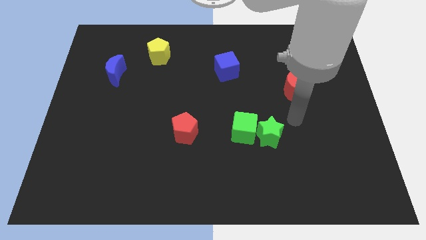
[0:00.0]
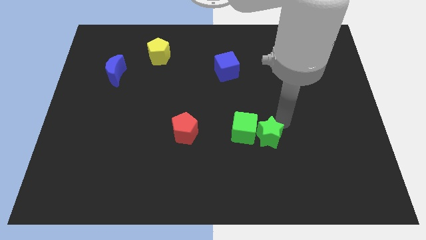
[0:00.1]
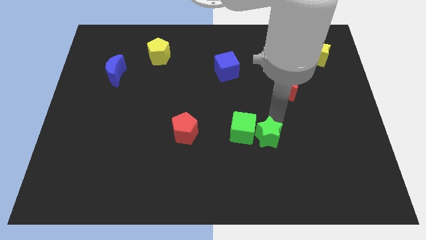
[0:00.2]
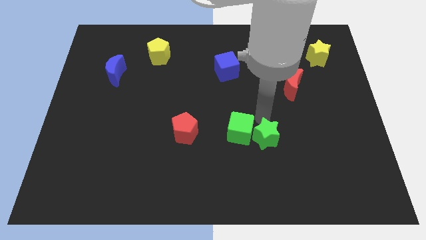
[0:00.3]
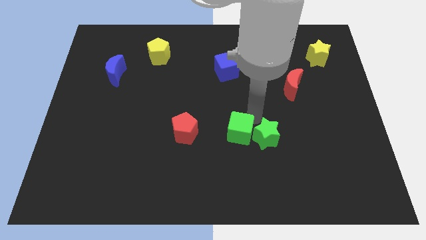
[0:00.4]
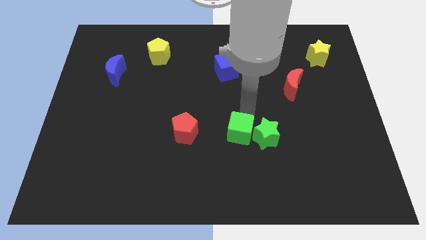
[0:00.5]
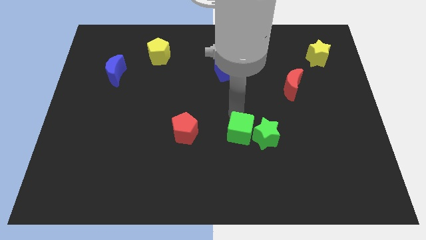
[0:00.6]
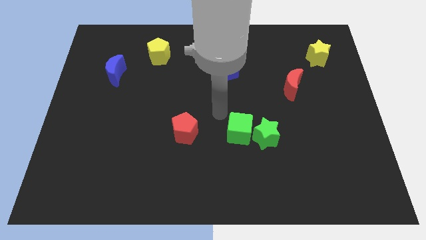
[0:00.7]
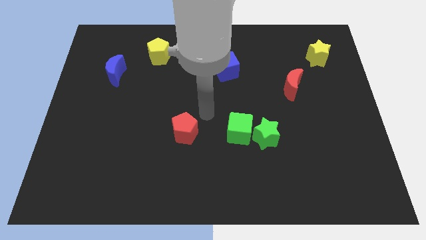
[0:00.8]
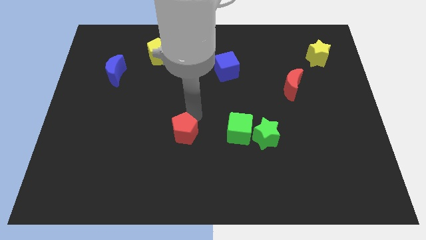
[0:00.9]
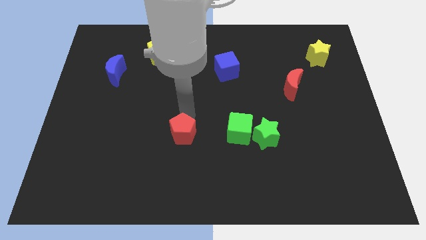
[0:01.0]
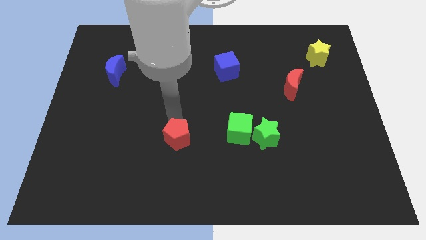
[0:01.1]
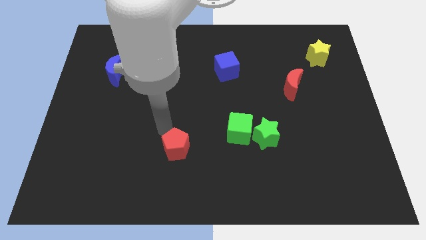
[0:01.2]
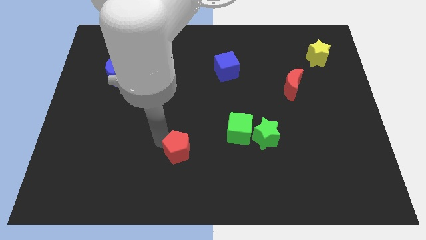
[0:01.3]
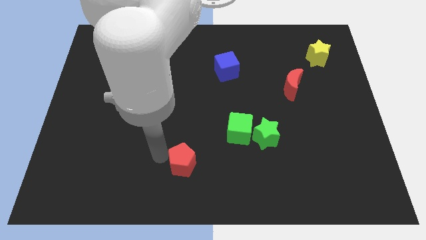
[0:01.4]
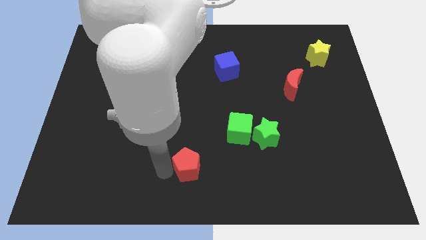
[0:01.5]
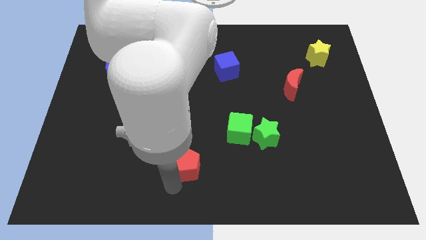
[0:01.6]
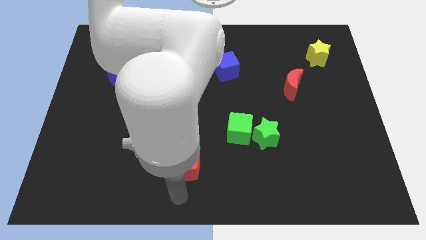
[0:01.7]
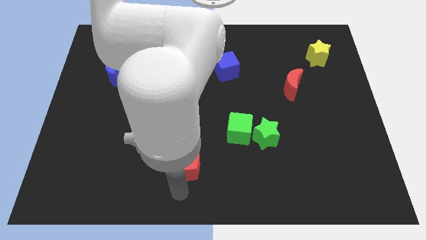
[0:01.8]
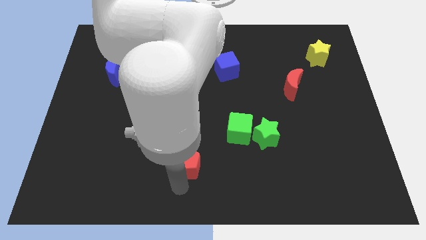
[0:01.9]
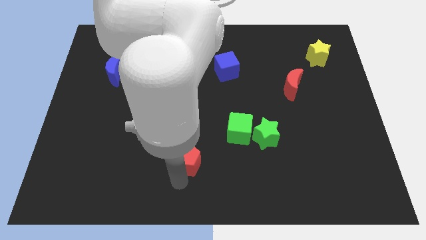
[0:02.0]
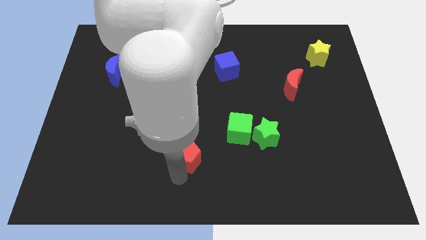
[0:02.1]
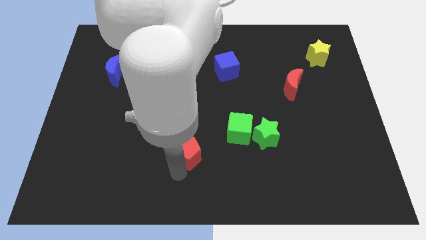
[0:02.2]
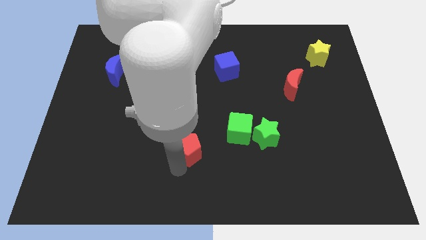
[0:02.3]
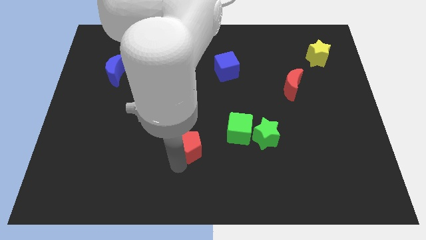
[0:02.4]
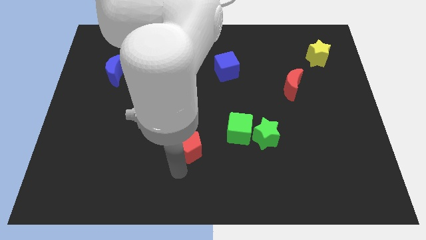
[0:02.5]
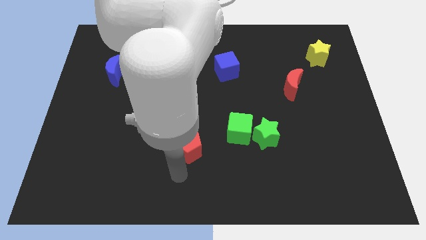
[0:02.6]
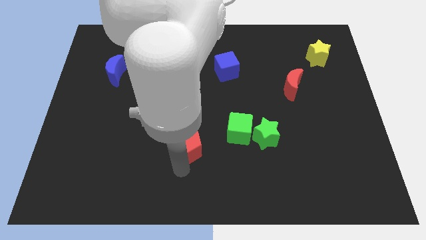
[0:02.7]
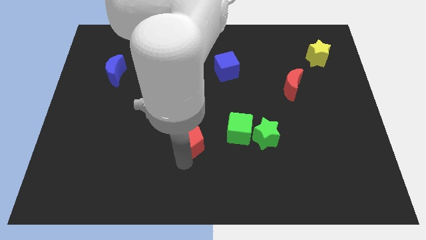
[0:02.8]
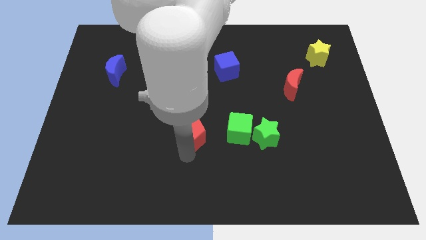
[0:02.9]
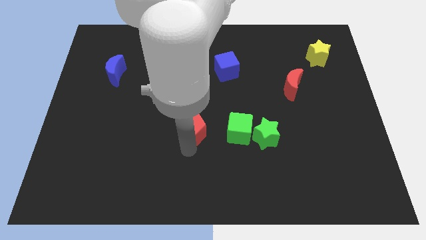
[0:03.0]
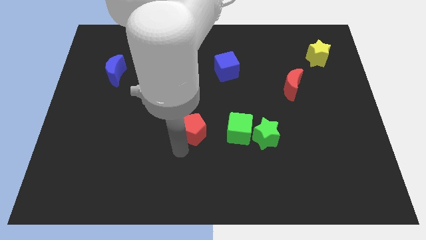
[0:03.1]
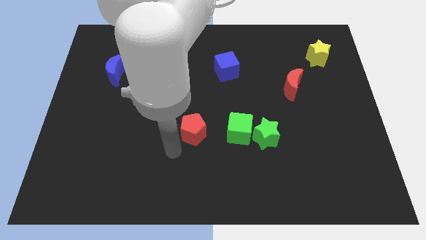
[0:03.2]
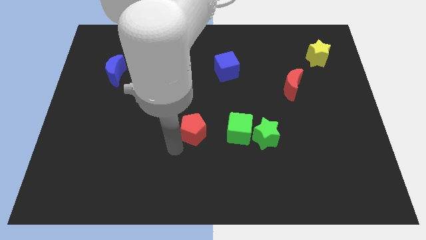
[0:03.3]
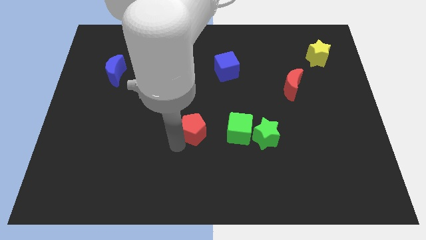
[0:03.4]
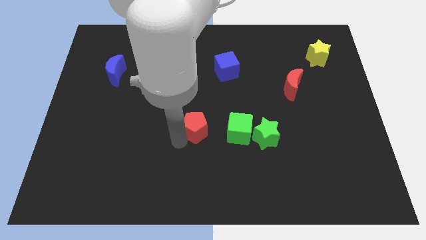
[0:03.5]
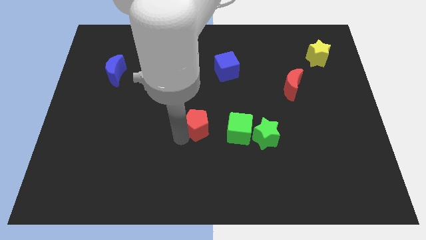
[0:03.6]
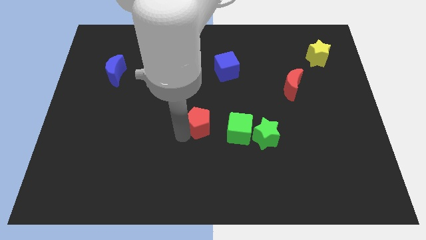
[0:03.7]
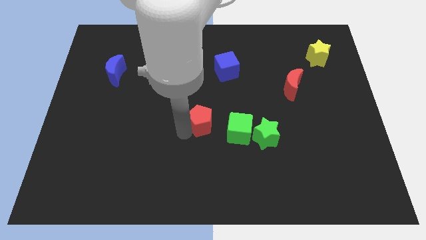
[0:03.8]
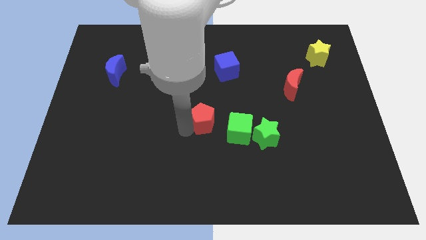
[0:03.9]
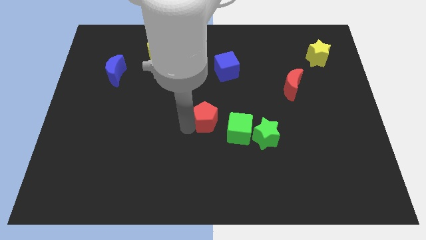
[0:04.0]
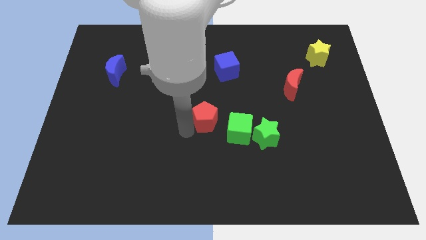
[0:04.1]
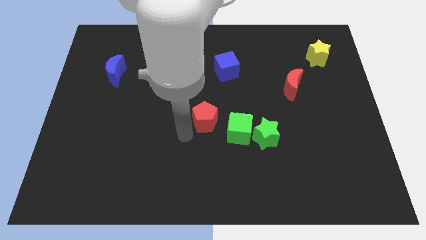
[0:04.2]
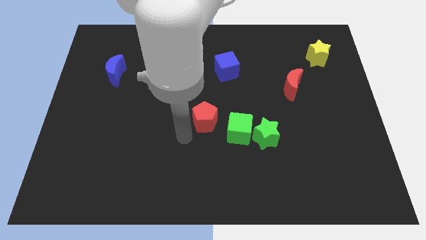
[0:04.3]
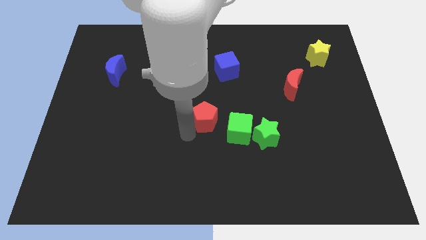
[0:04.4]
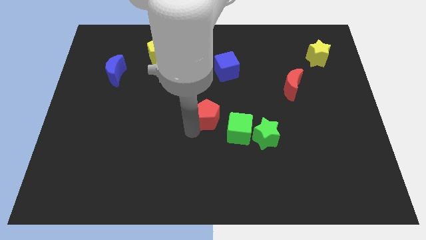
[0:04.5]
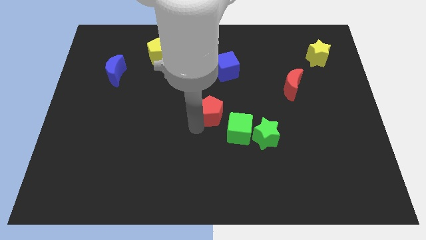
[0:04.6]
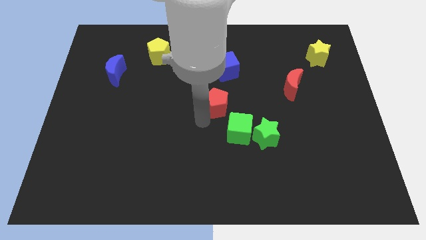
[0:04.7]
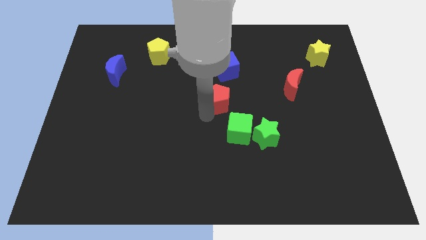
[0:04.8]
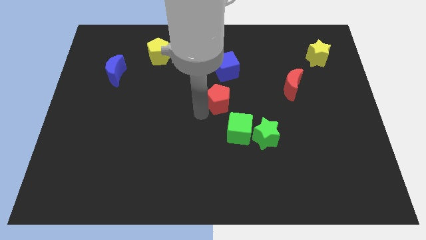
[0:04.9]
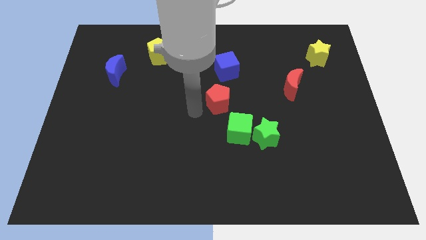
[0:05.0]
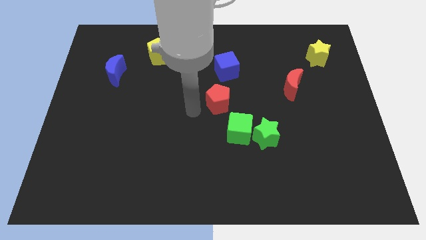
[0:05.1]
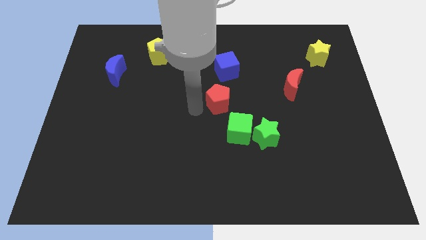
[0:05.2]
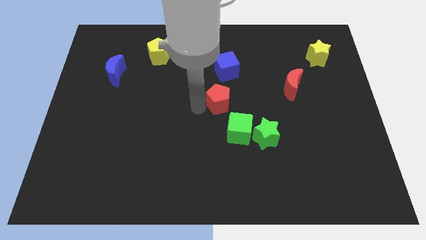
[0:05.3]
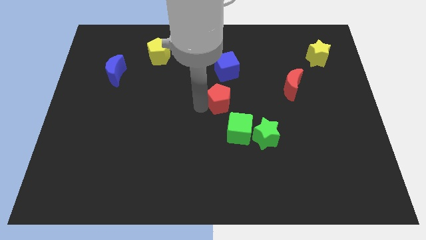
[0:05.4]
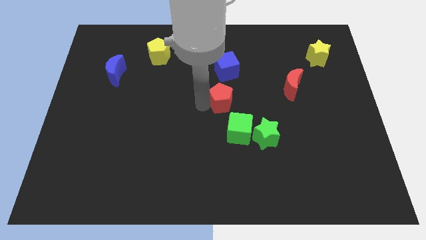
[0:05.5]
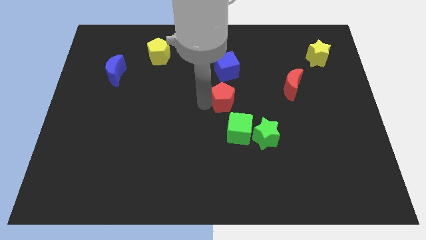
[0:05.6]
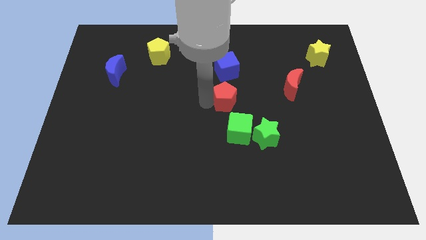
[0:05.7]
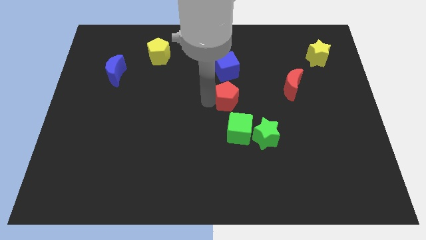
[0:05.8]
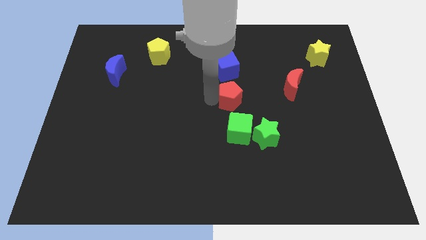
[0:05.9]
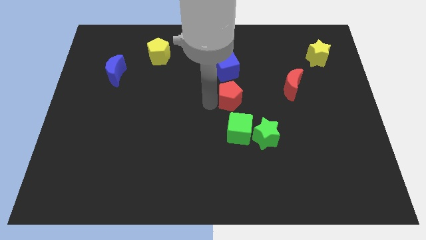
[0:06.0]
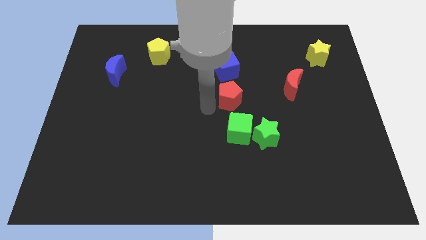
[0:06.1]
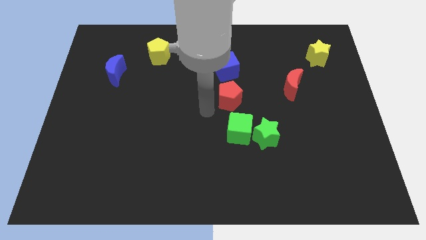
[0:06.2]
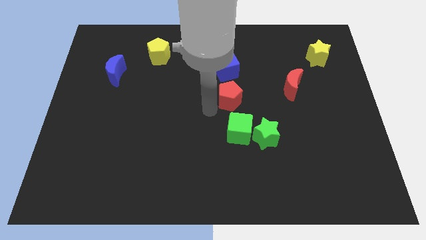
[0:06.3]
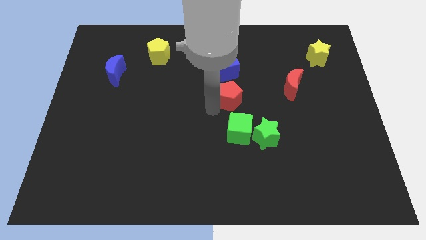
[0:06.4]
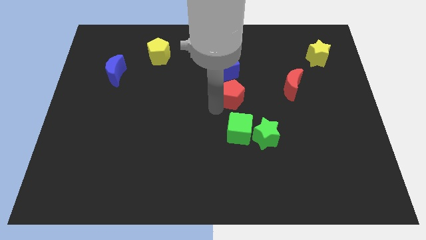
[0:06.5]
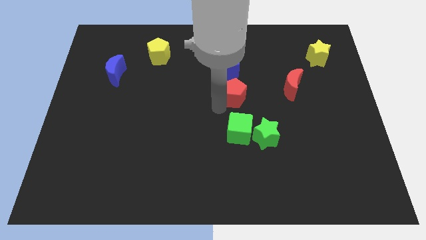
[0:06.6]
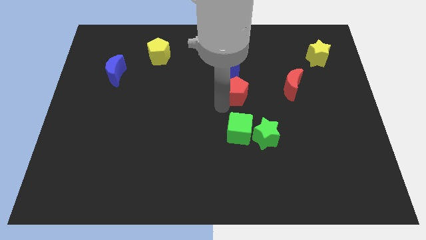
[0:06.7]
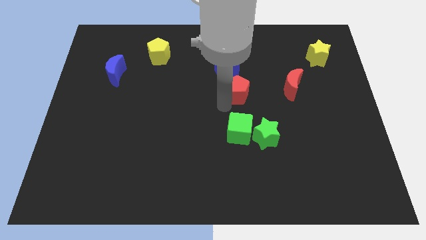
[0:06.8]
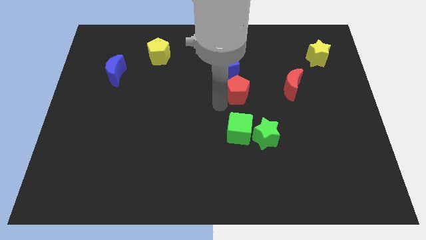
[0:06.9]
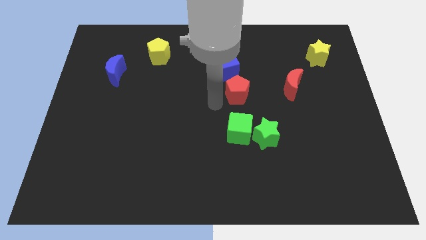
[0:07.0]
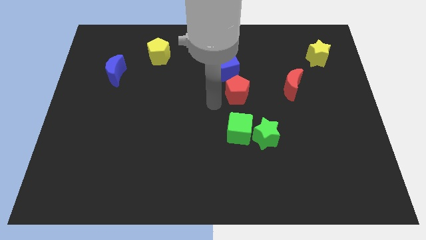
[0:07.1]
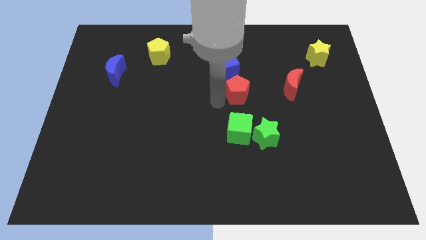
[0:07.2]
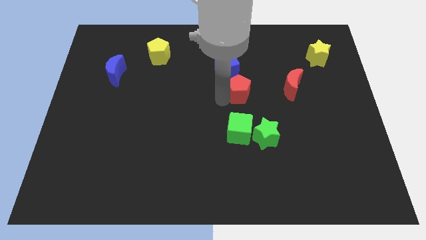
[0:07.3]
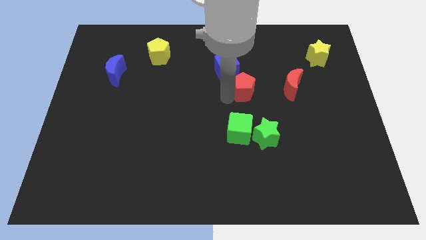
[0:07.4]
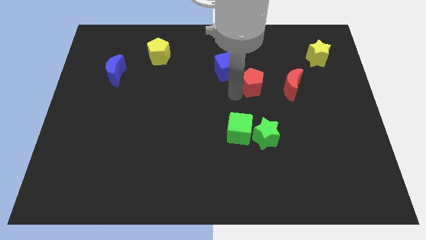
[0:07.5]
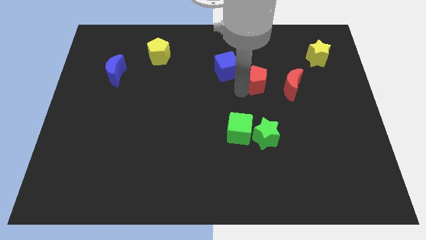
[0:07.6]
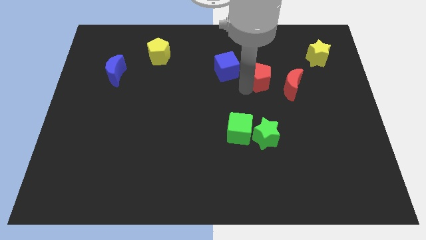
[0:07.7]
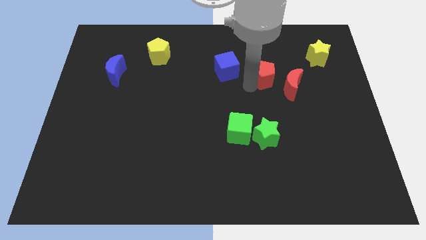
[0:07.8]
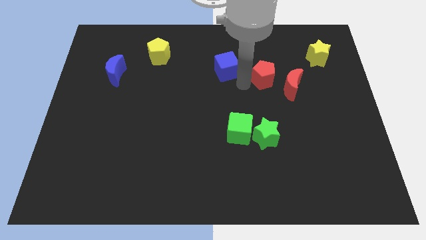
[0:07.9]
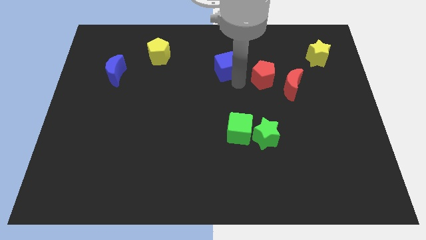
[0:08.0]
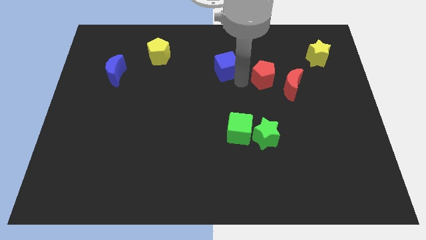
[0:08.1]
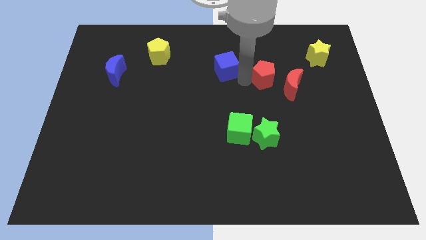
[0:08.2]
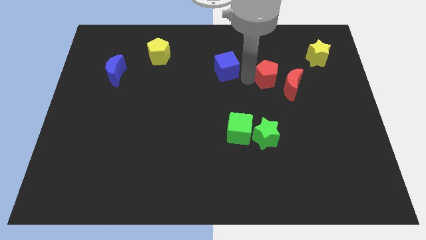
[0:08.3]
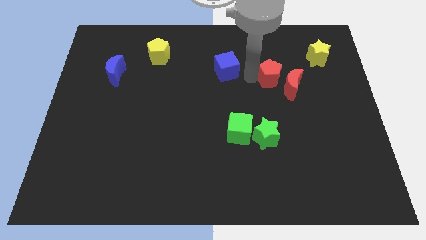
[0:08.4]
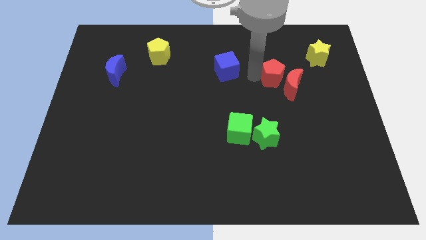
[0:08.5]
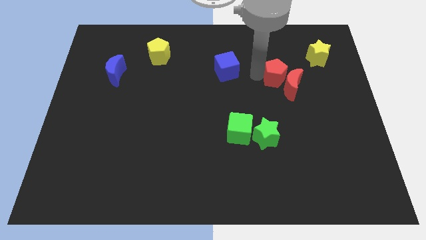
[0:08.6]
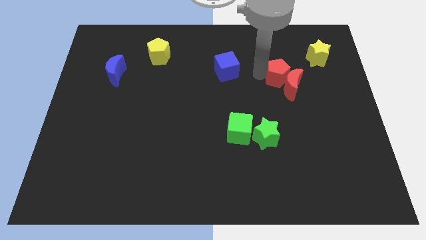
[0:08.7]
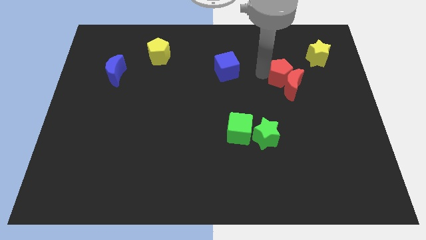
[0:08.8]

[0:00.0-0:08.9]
put the red pentagon diagonally down and to the left of the yellow star
